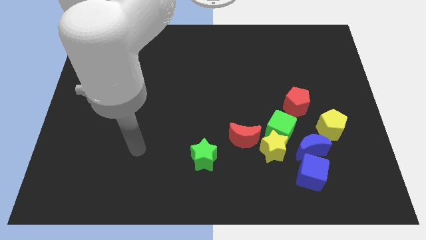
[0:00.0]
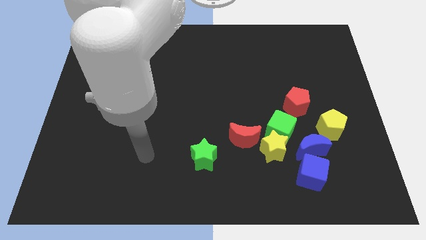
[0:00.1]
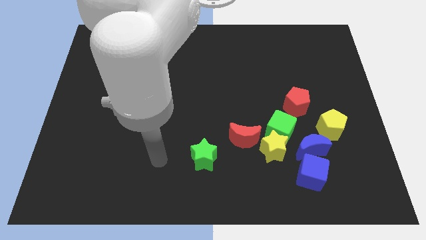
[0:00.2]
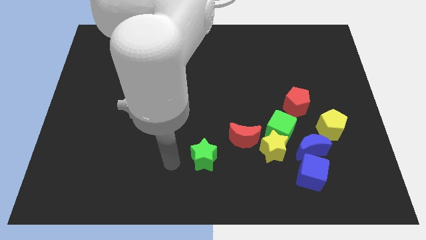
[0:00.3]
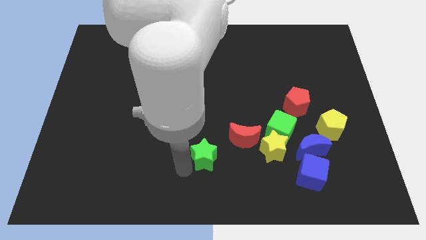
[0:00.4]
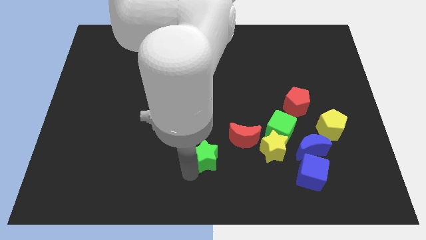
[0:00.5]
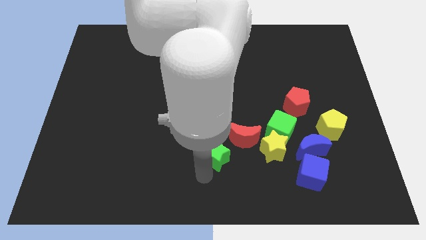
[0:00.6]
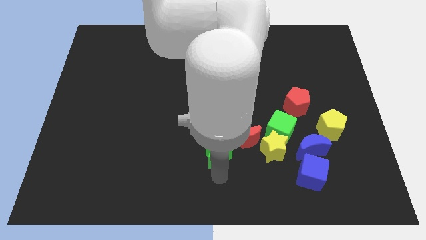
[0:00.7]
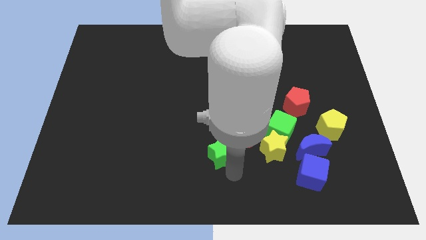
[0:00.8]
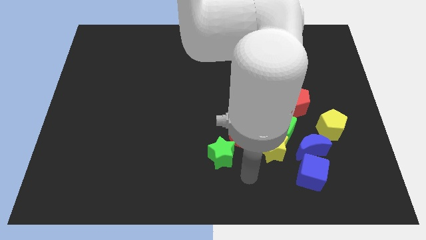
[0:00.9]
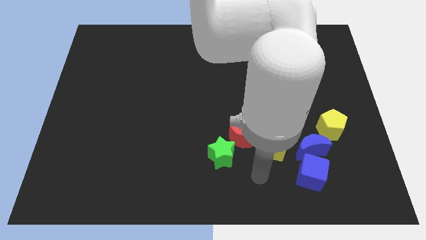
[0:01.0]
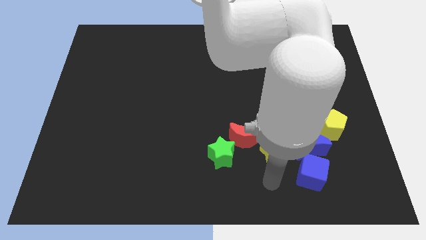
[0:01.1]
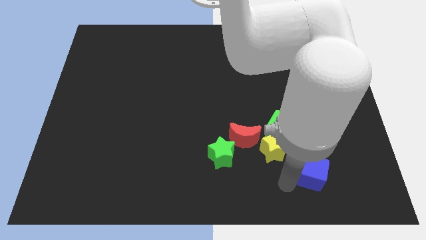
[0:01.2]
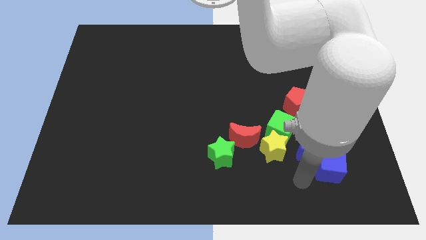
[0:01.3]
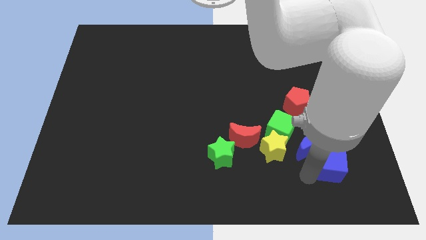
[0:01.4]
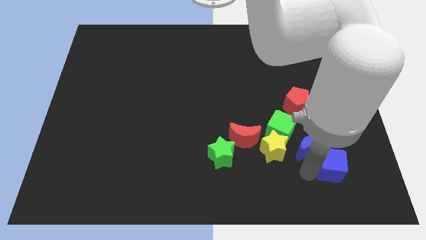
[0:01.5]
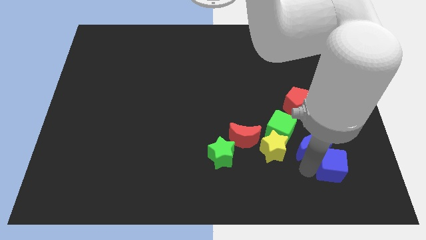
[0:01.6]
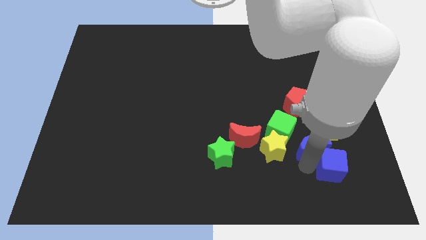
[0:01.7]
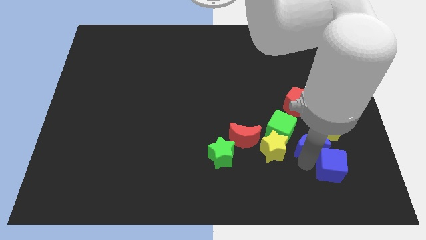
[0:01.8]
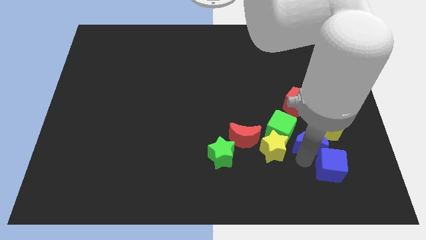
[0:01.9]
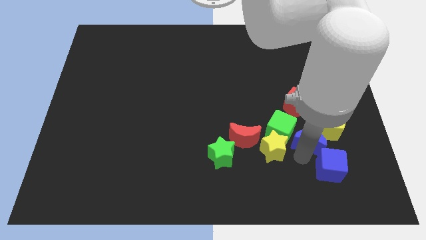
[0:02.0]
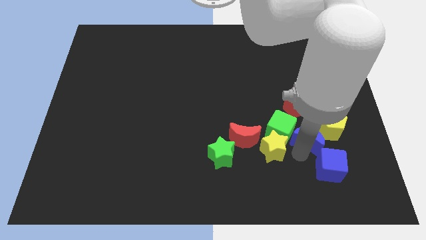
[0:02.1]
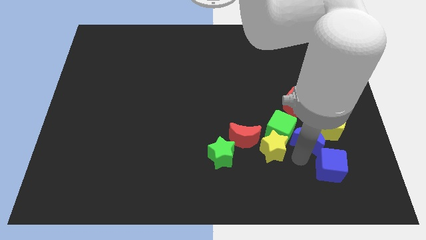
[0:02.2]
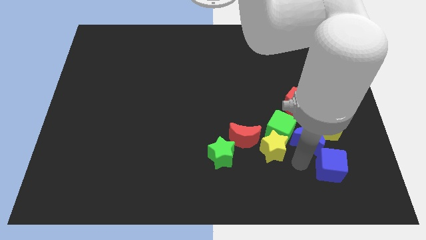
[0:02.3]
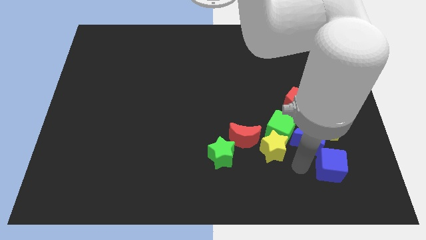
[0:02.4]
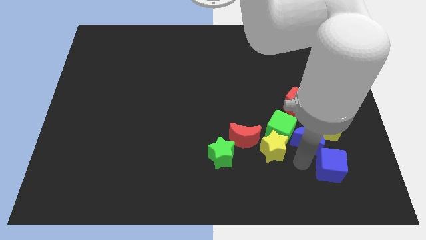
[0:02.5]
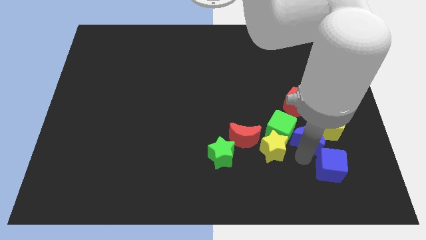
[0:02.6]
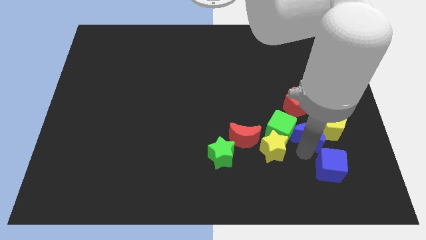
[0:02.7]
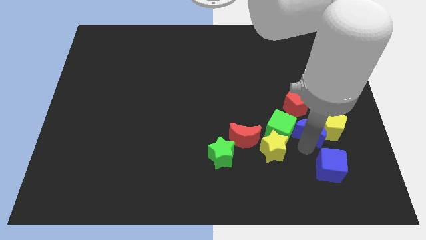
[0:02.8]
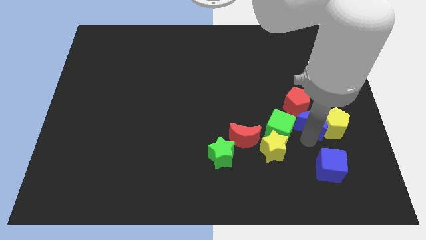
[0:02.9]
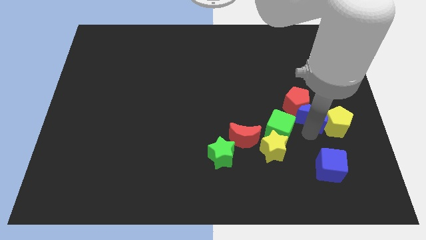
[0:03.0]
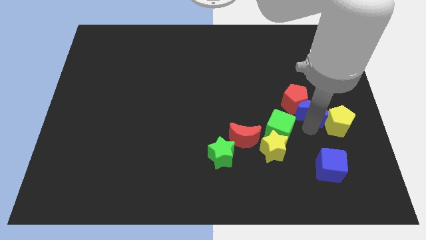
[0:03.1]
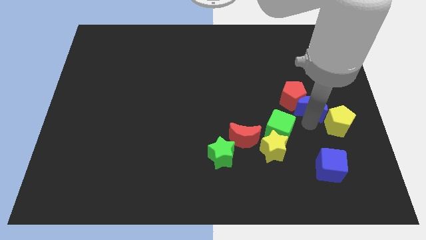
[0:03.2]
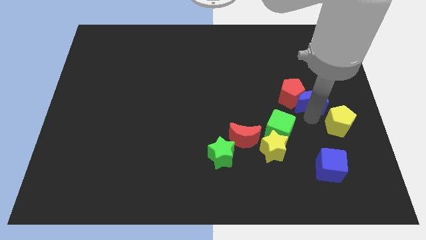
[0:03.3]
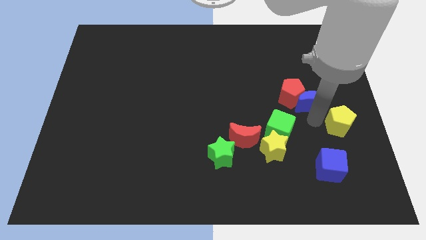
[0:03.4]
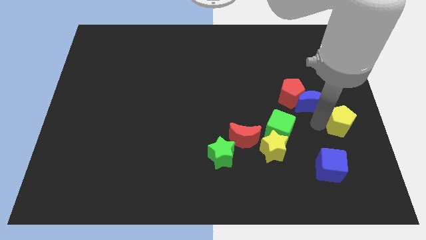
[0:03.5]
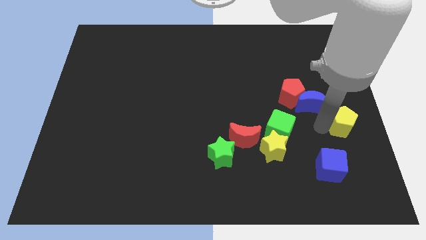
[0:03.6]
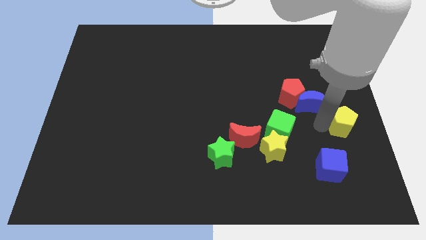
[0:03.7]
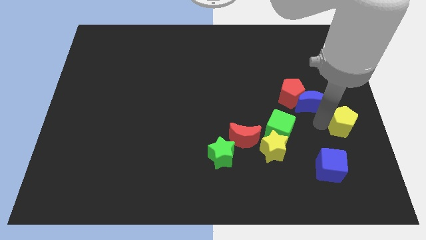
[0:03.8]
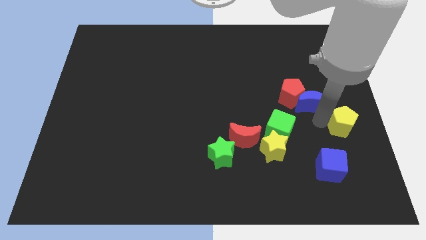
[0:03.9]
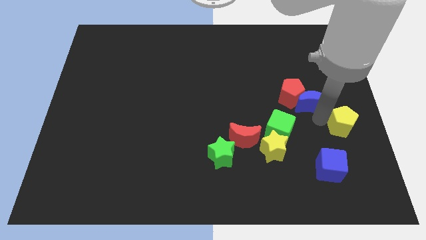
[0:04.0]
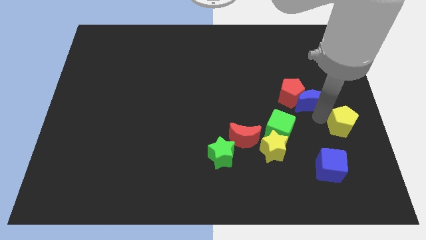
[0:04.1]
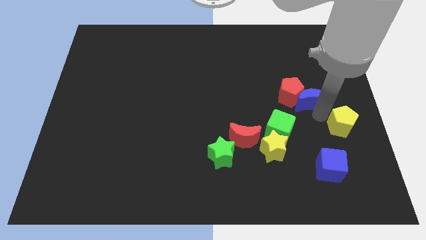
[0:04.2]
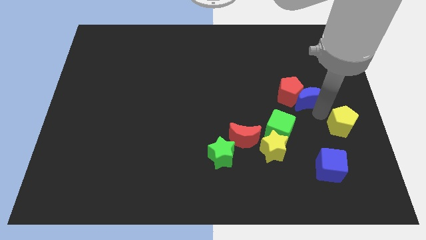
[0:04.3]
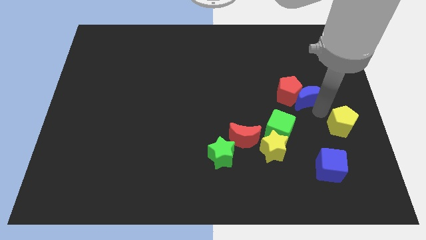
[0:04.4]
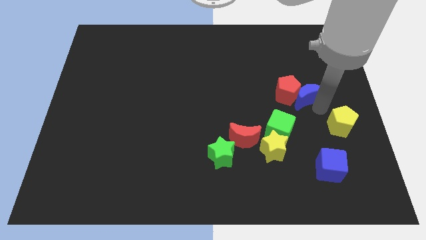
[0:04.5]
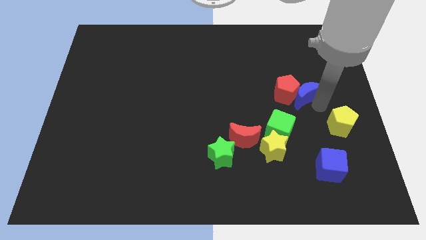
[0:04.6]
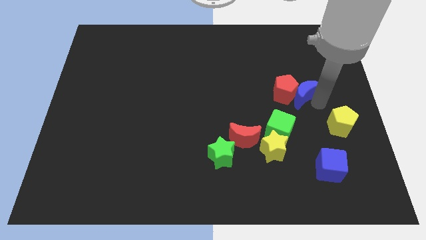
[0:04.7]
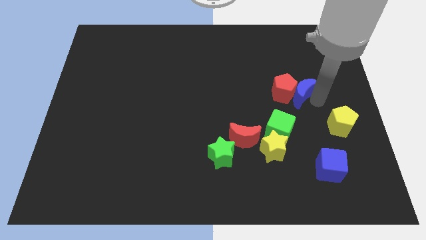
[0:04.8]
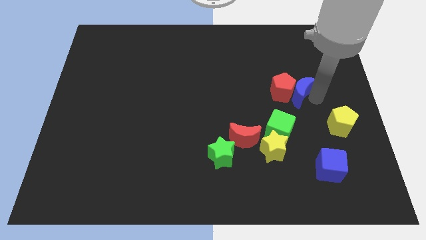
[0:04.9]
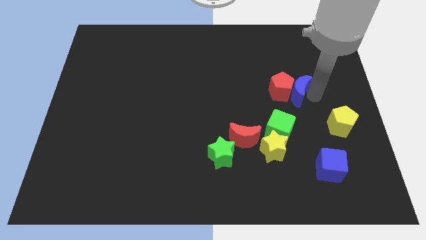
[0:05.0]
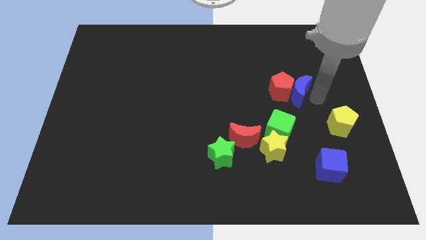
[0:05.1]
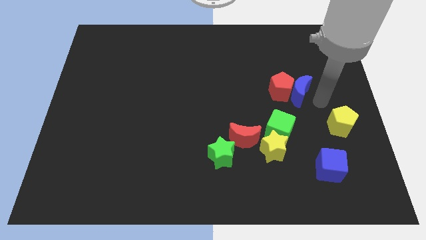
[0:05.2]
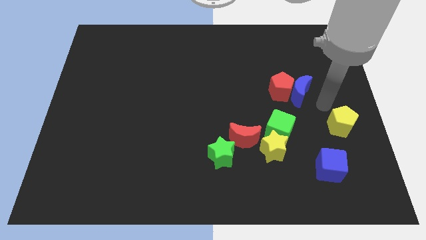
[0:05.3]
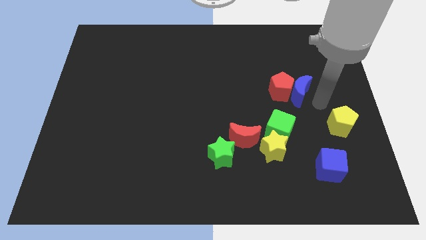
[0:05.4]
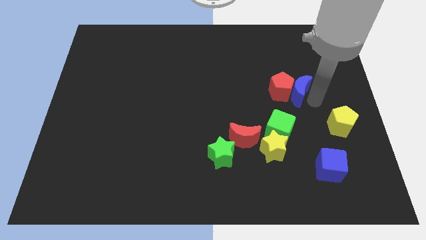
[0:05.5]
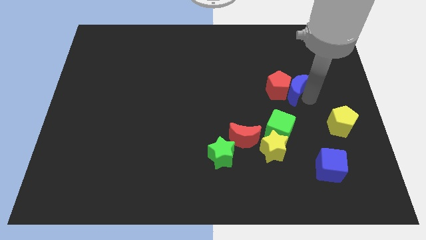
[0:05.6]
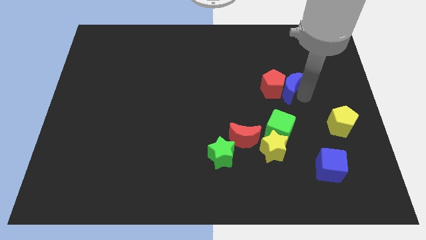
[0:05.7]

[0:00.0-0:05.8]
slightly slide the blue moon up and to the left diagonally

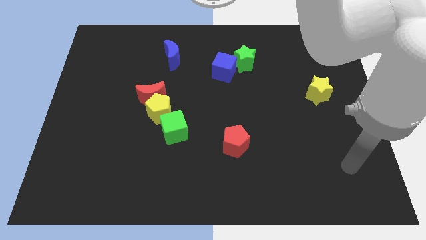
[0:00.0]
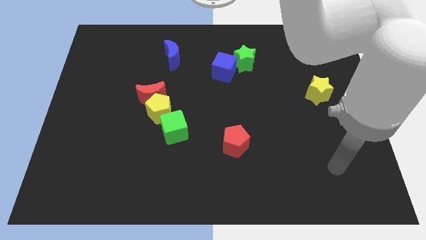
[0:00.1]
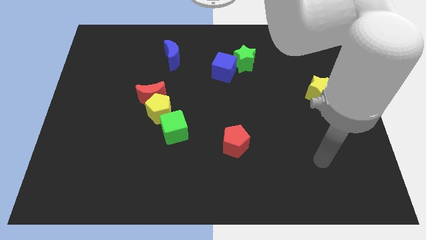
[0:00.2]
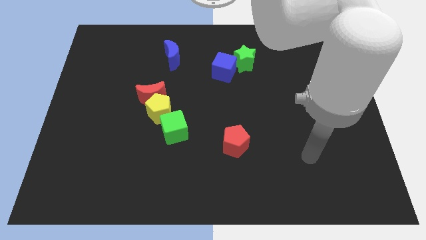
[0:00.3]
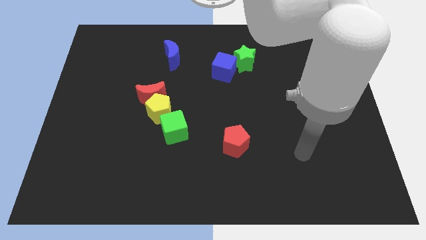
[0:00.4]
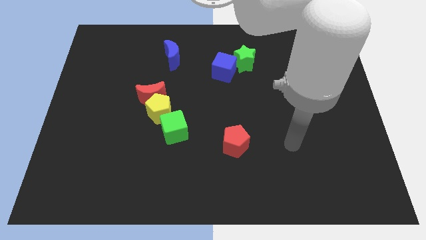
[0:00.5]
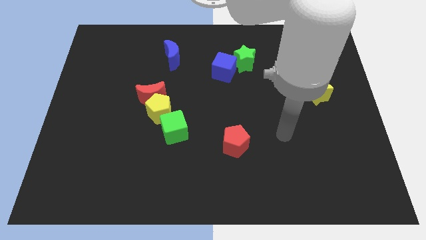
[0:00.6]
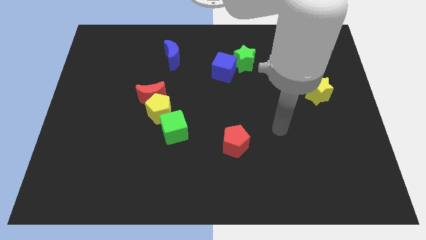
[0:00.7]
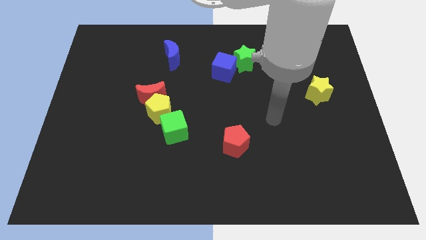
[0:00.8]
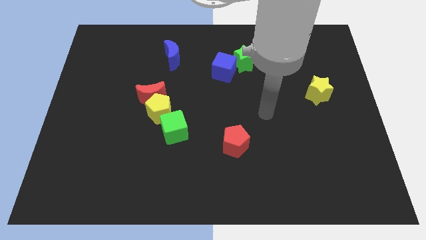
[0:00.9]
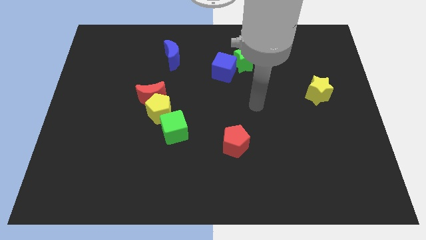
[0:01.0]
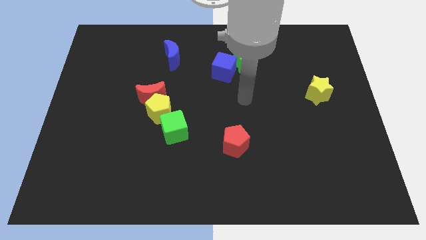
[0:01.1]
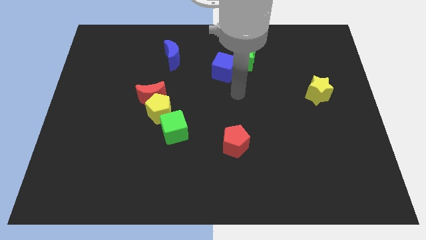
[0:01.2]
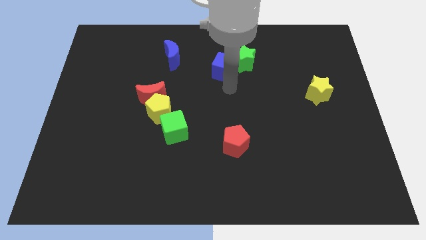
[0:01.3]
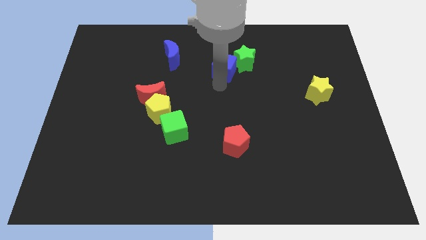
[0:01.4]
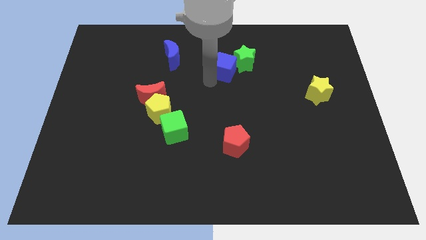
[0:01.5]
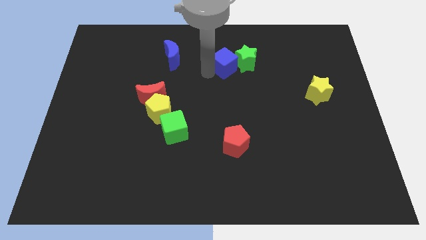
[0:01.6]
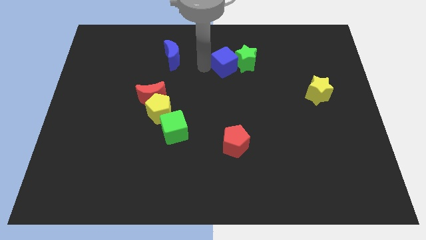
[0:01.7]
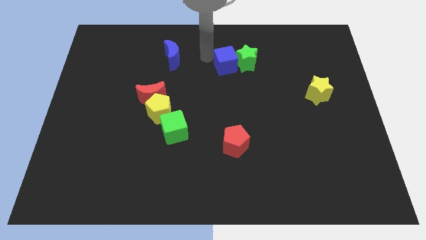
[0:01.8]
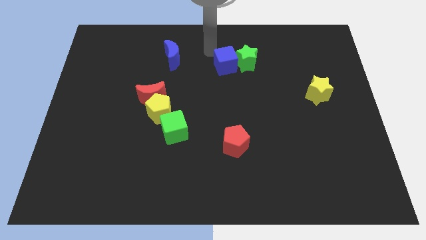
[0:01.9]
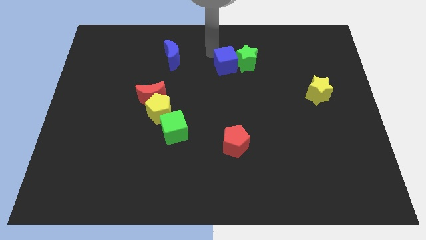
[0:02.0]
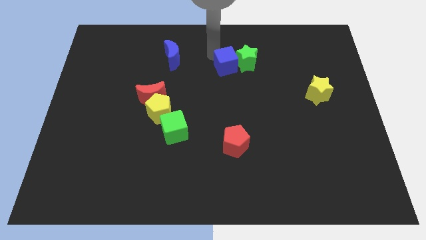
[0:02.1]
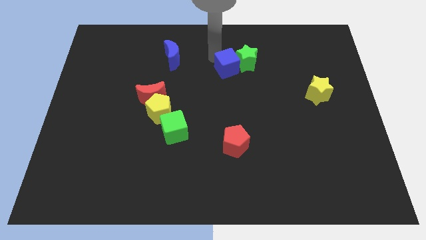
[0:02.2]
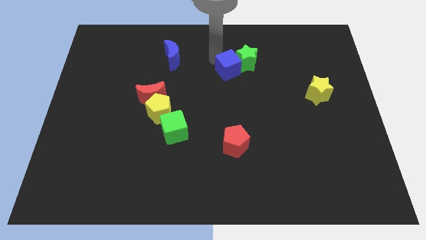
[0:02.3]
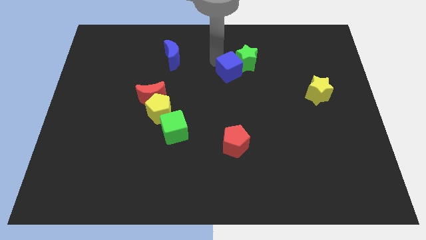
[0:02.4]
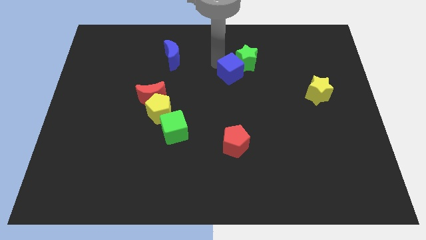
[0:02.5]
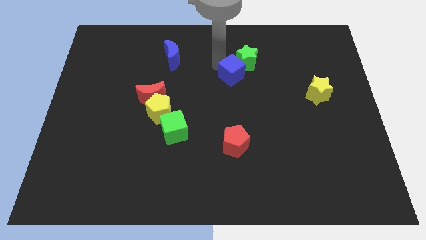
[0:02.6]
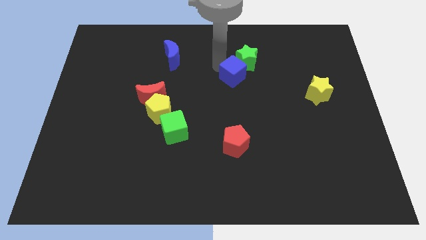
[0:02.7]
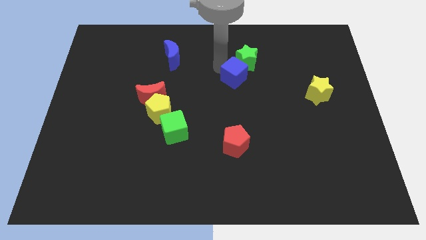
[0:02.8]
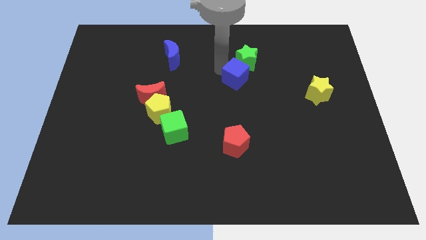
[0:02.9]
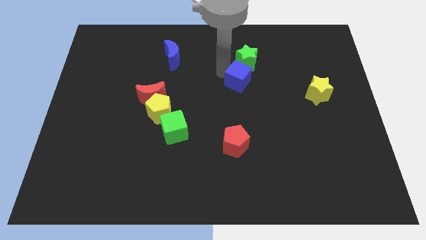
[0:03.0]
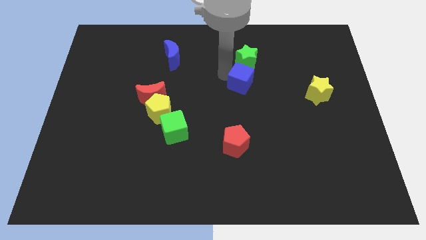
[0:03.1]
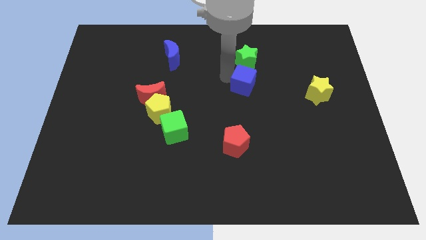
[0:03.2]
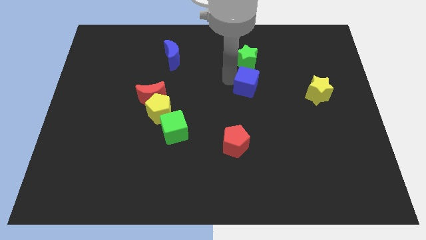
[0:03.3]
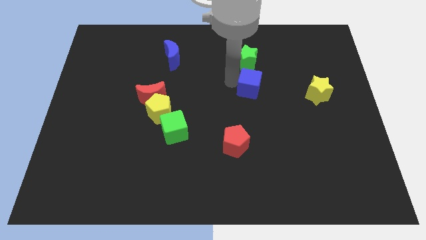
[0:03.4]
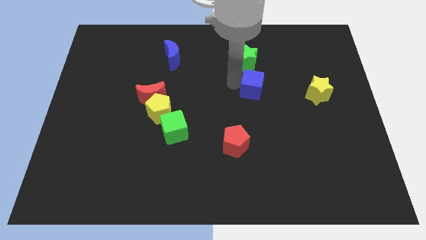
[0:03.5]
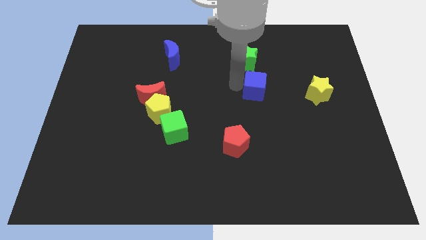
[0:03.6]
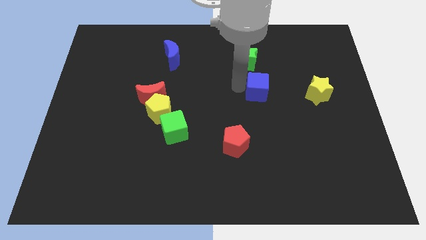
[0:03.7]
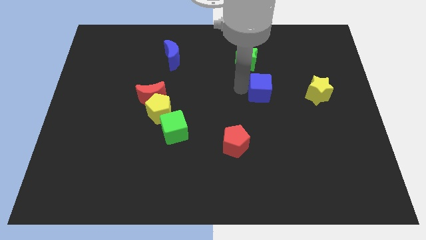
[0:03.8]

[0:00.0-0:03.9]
slide the blue cube right slightly
